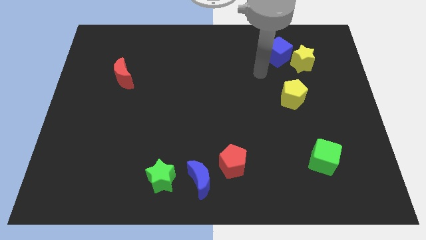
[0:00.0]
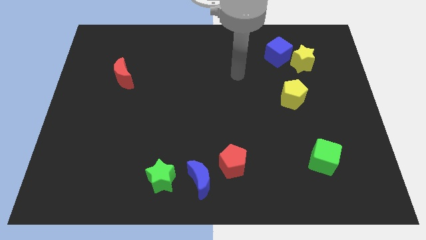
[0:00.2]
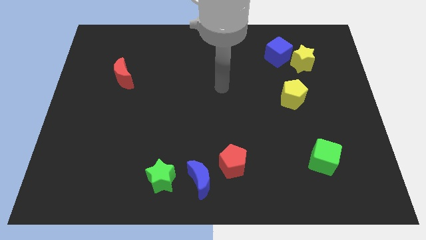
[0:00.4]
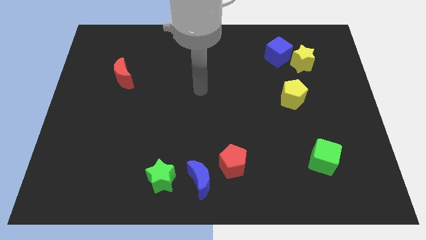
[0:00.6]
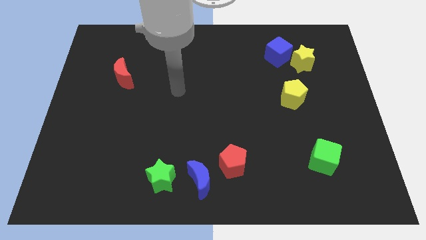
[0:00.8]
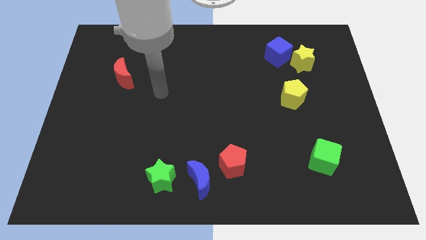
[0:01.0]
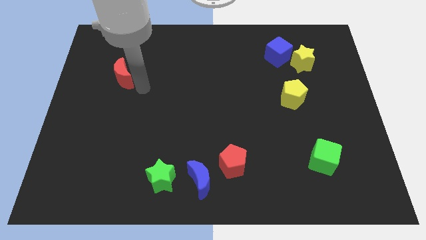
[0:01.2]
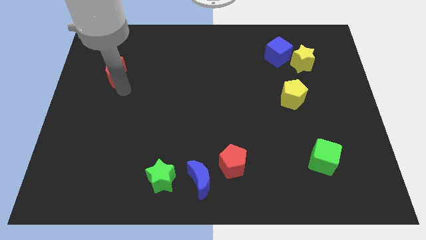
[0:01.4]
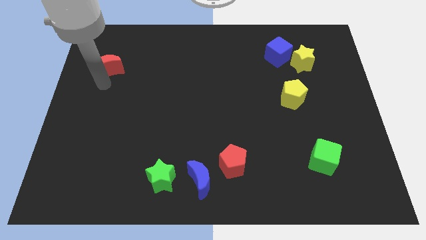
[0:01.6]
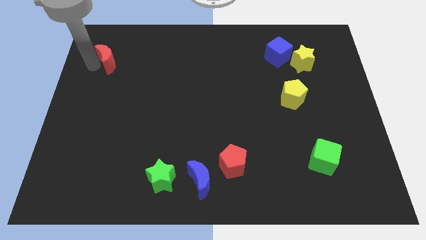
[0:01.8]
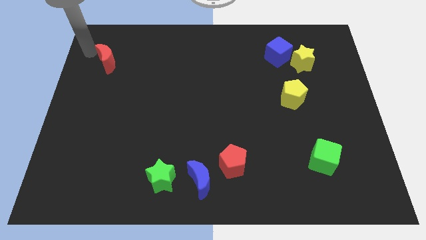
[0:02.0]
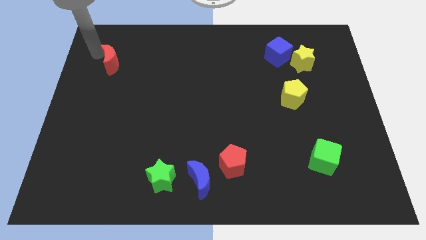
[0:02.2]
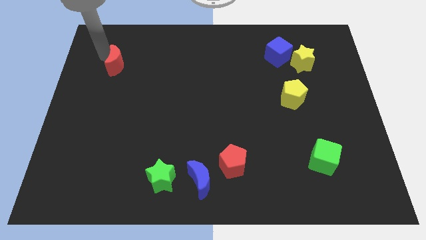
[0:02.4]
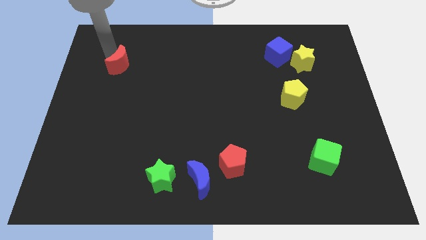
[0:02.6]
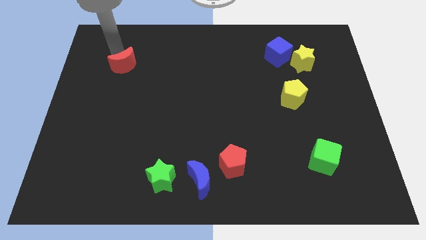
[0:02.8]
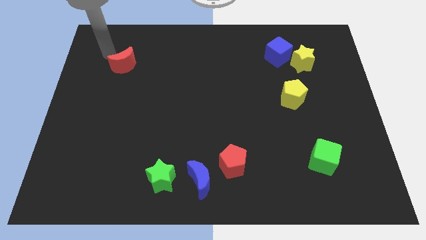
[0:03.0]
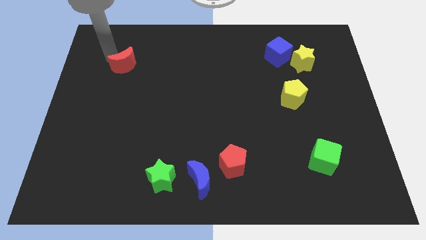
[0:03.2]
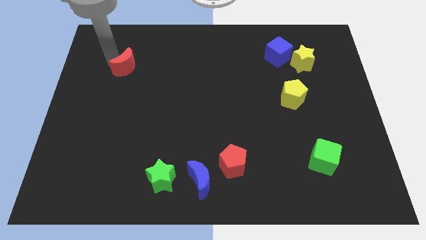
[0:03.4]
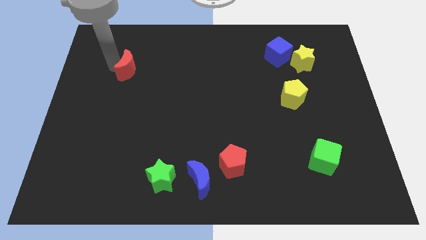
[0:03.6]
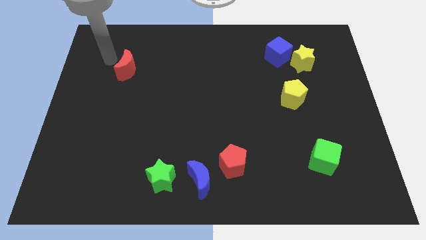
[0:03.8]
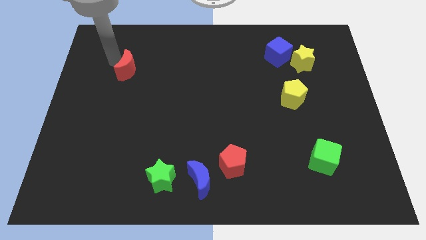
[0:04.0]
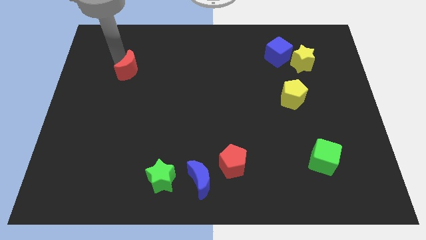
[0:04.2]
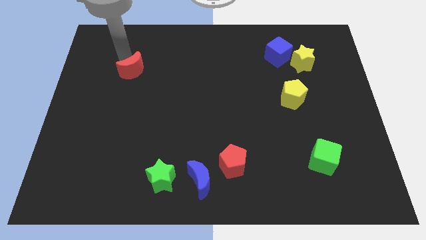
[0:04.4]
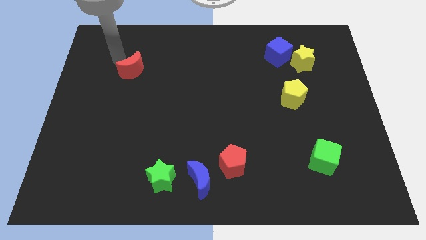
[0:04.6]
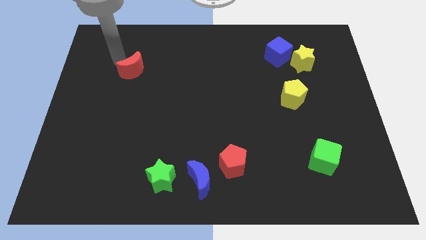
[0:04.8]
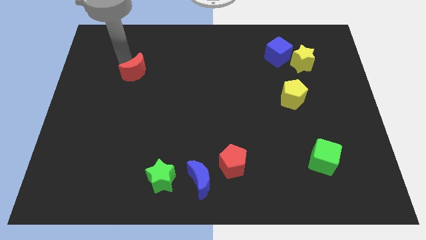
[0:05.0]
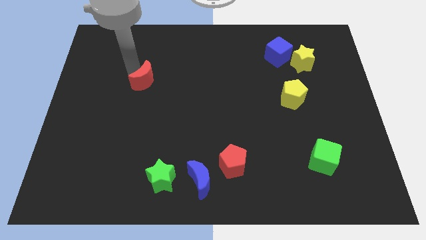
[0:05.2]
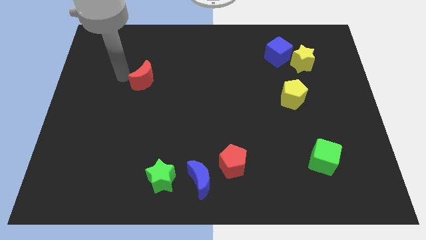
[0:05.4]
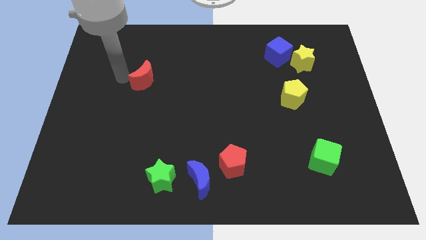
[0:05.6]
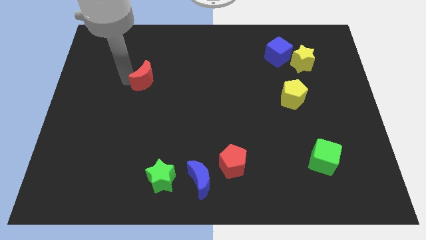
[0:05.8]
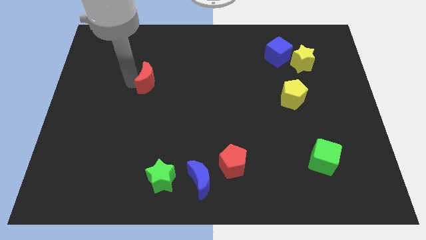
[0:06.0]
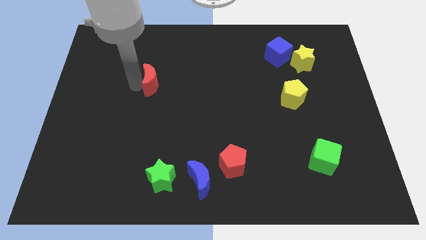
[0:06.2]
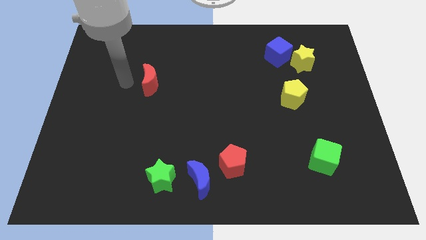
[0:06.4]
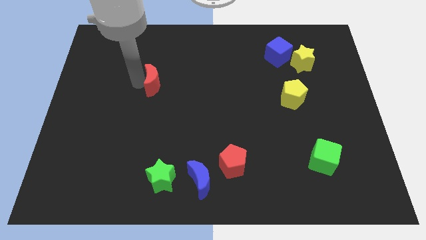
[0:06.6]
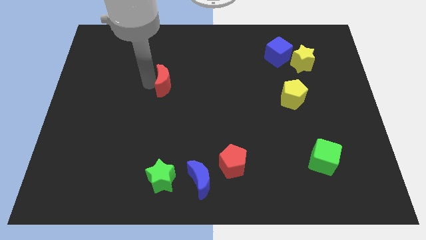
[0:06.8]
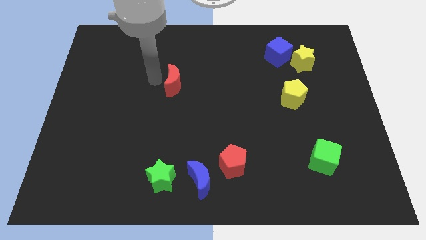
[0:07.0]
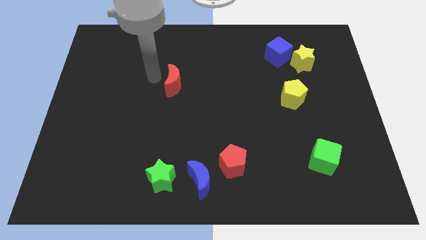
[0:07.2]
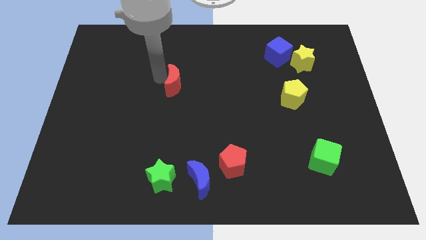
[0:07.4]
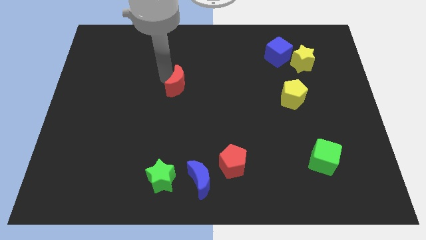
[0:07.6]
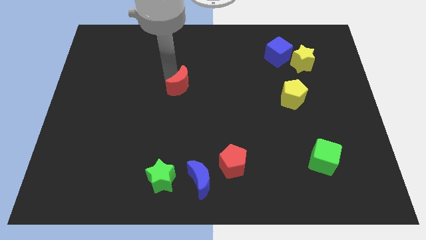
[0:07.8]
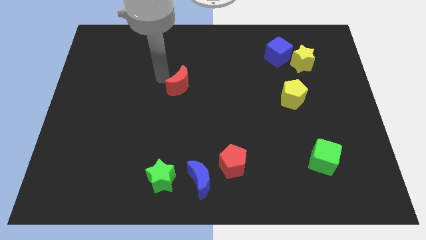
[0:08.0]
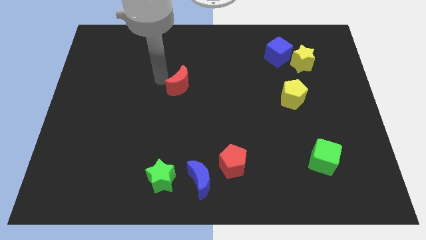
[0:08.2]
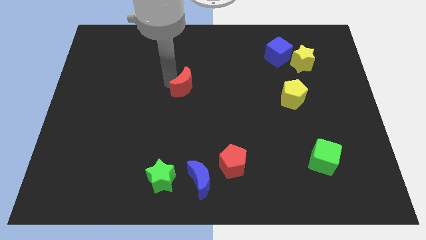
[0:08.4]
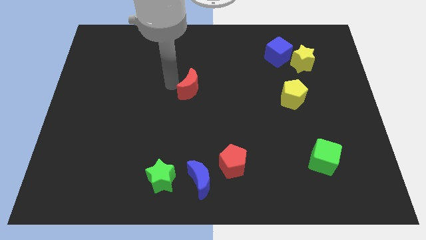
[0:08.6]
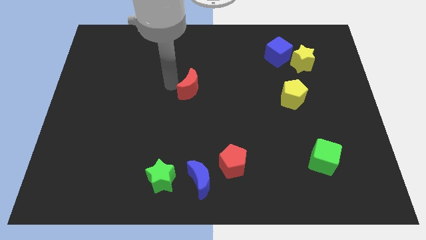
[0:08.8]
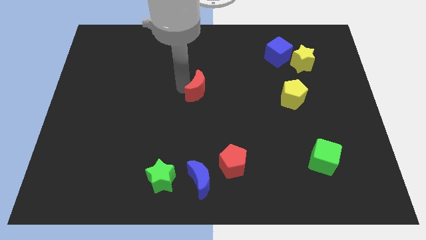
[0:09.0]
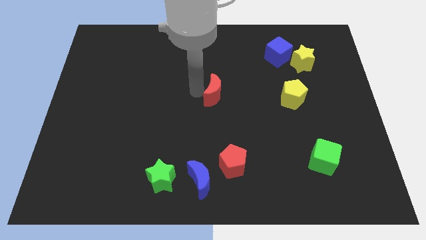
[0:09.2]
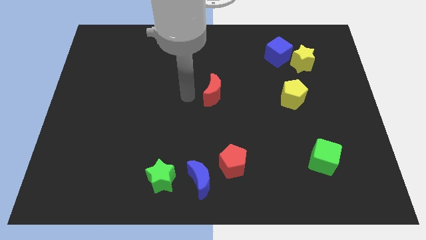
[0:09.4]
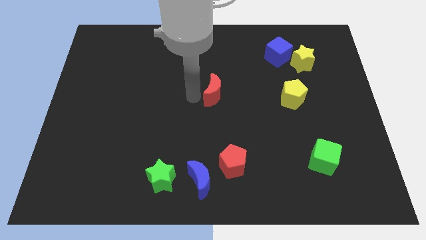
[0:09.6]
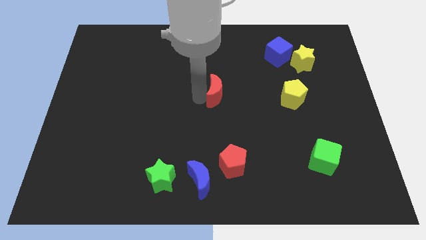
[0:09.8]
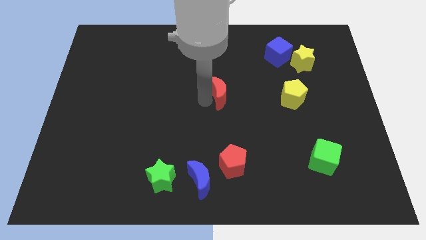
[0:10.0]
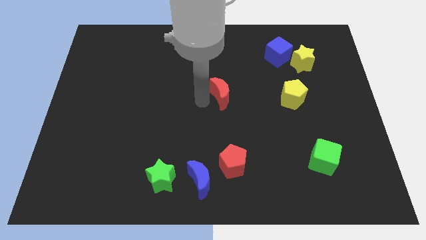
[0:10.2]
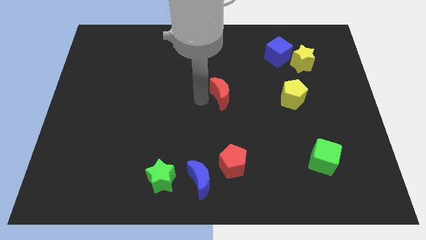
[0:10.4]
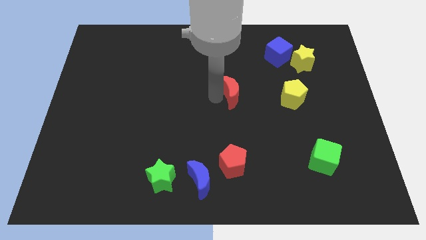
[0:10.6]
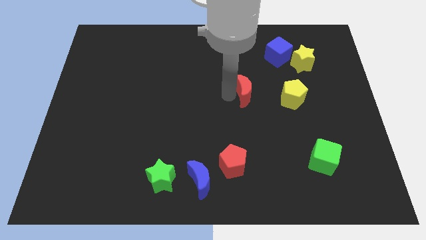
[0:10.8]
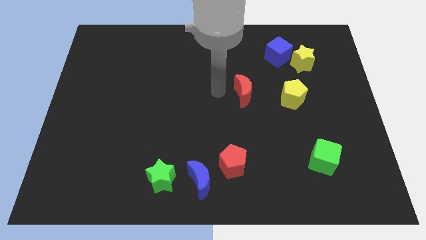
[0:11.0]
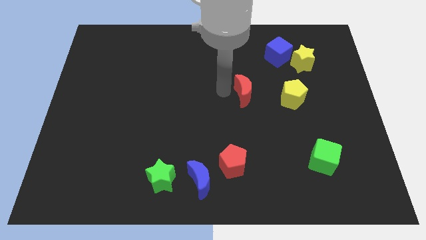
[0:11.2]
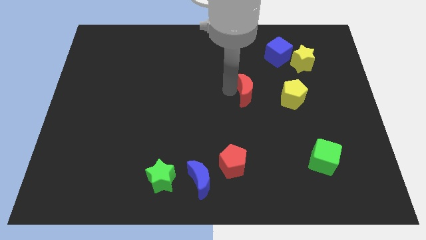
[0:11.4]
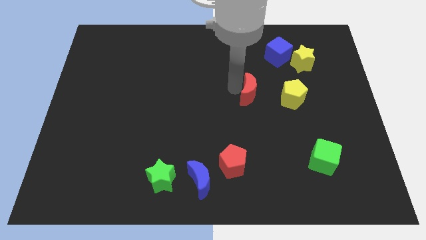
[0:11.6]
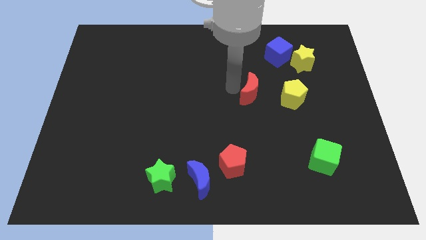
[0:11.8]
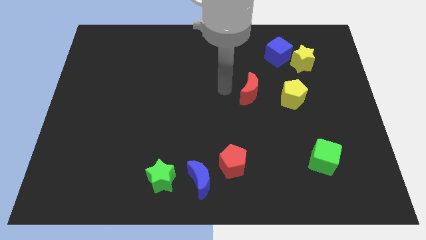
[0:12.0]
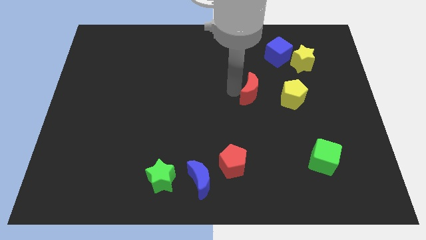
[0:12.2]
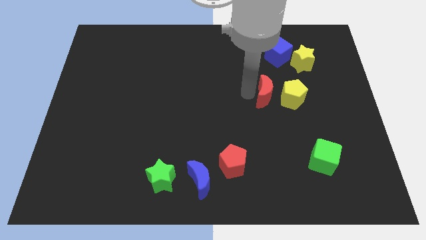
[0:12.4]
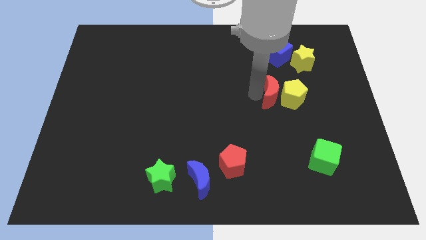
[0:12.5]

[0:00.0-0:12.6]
push the red moon to the yellow pentagon

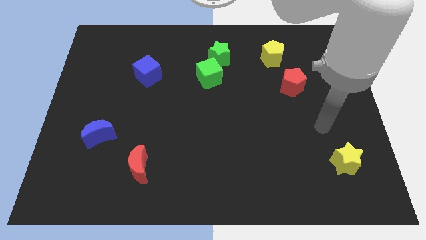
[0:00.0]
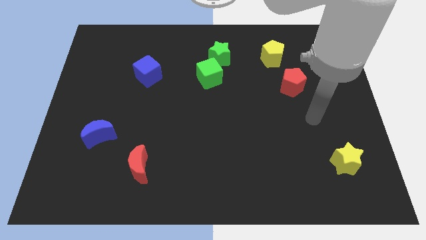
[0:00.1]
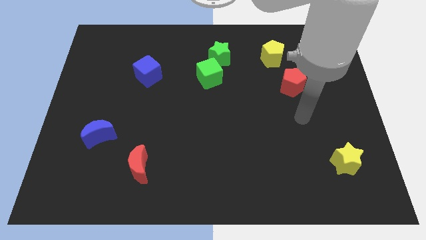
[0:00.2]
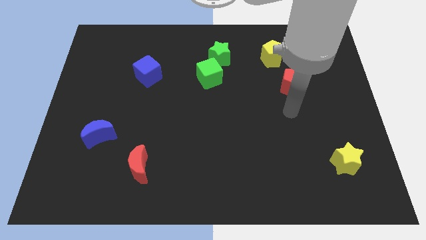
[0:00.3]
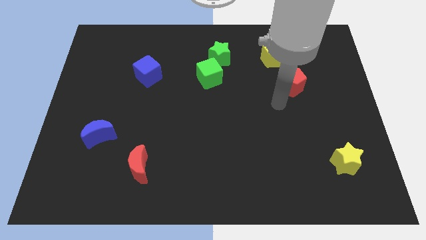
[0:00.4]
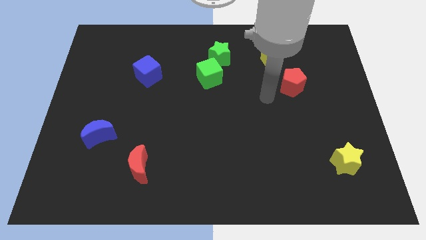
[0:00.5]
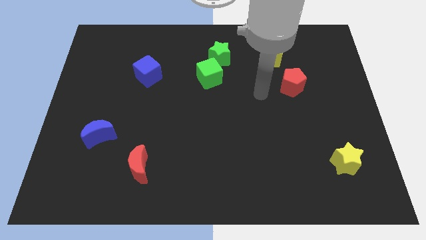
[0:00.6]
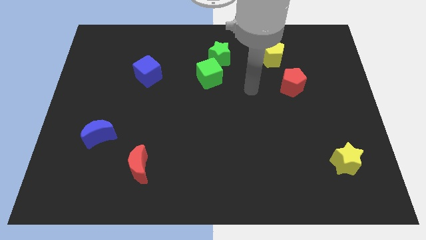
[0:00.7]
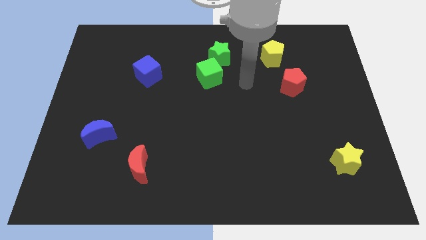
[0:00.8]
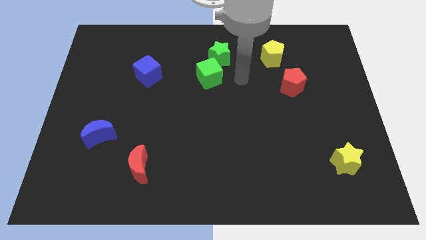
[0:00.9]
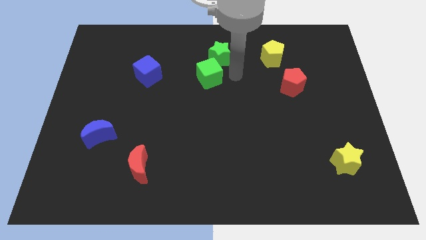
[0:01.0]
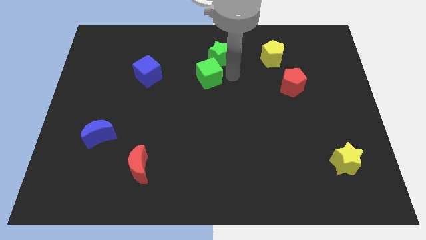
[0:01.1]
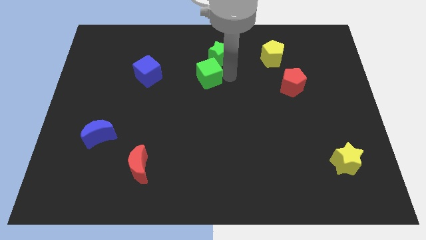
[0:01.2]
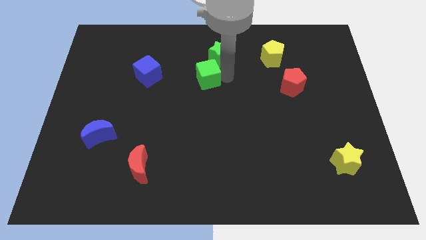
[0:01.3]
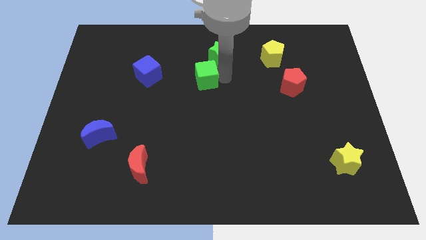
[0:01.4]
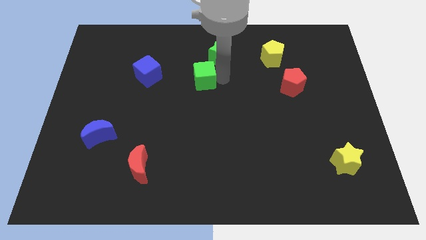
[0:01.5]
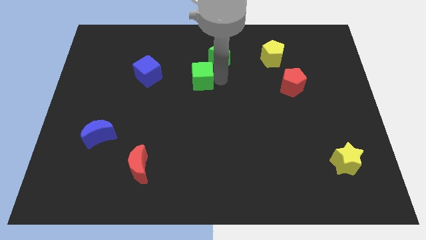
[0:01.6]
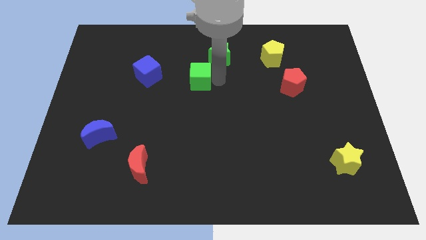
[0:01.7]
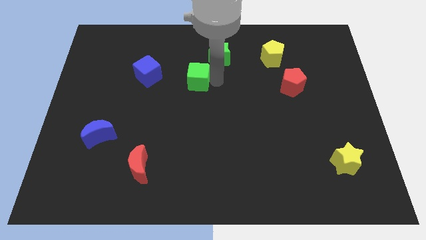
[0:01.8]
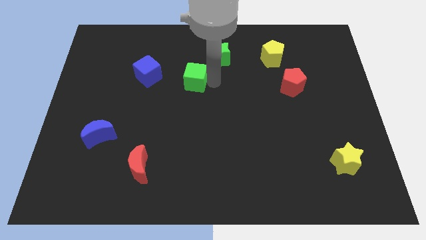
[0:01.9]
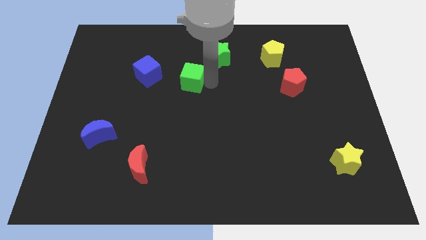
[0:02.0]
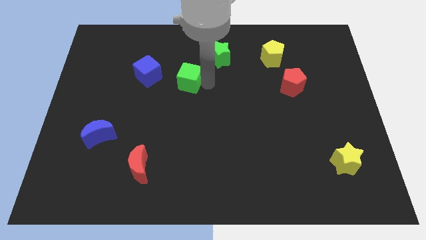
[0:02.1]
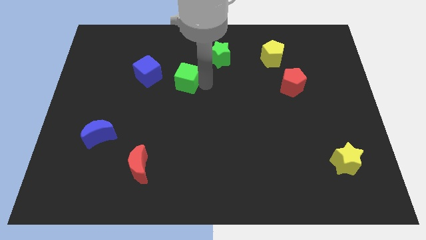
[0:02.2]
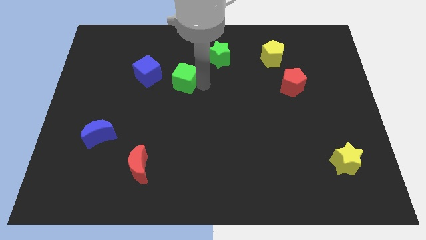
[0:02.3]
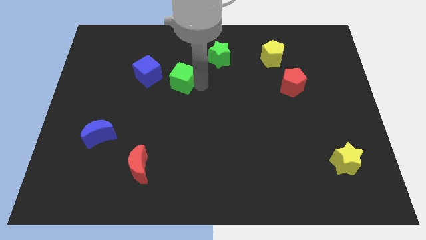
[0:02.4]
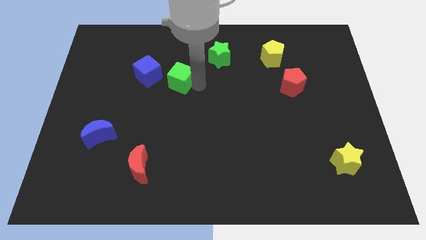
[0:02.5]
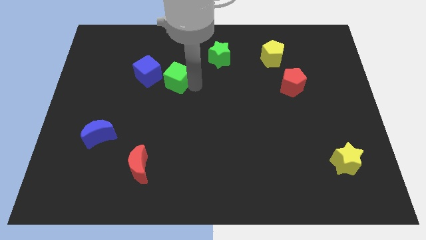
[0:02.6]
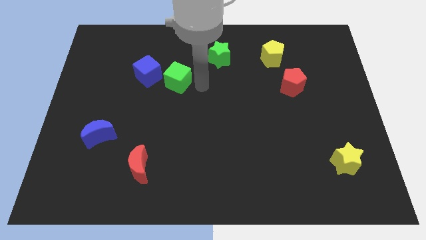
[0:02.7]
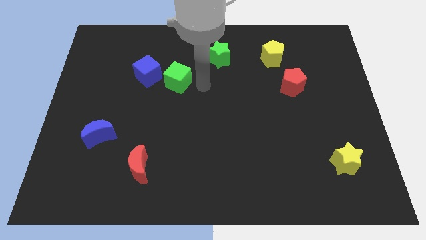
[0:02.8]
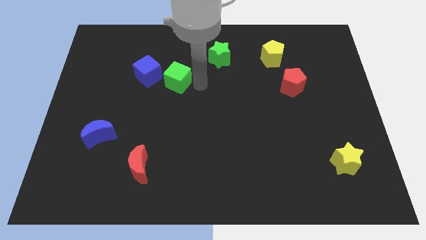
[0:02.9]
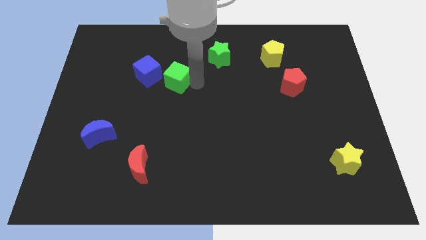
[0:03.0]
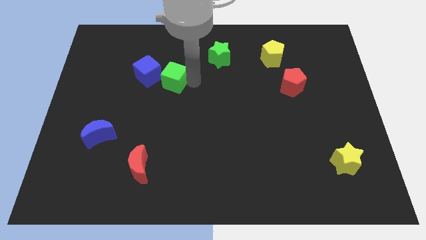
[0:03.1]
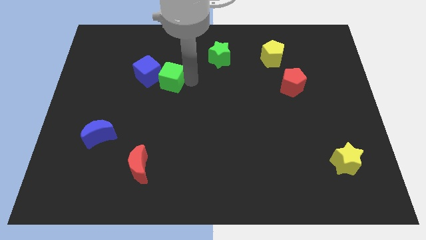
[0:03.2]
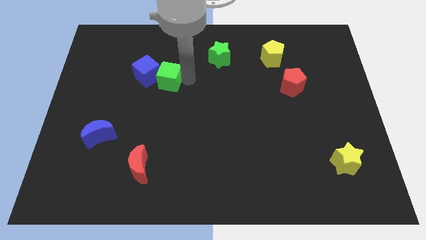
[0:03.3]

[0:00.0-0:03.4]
put the green cube towards the blue cube
